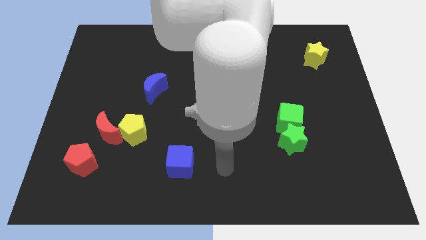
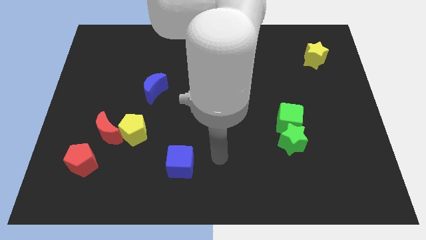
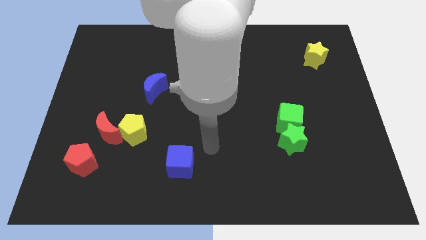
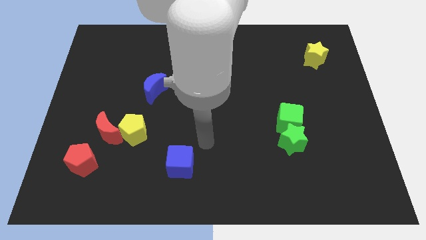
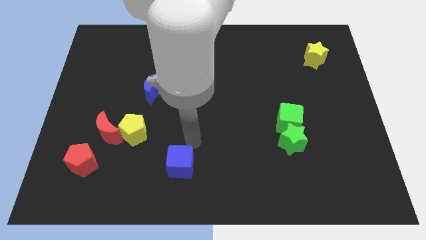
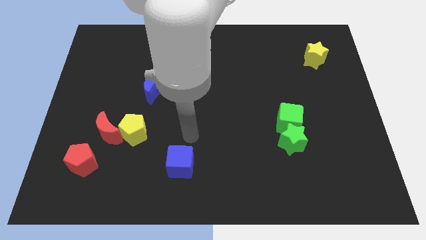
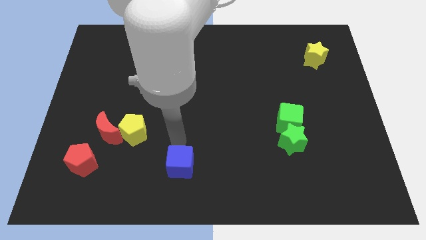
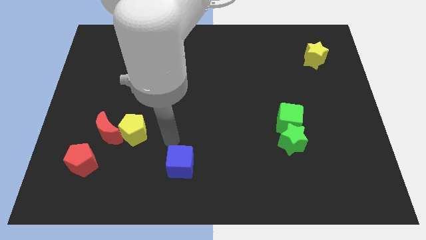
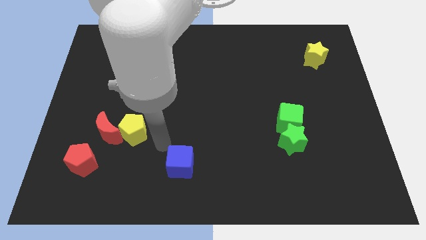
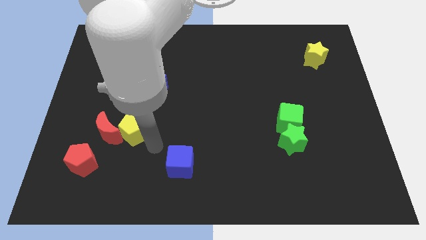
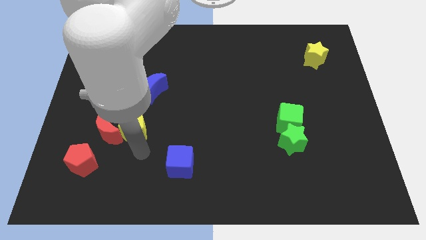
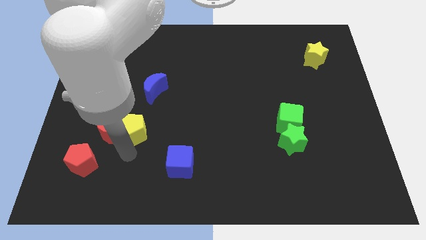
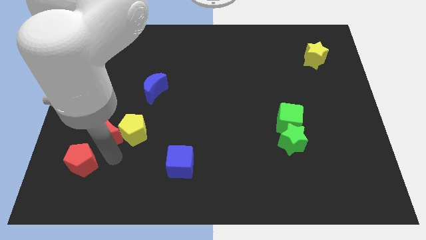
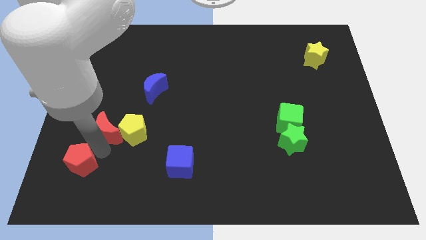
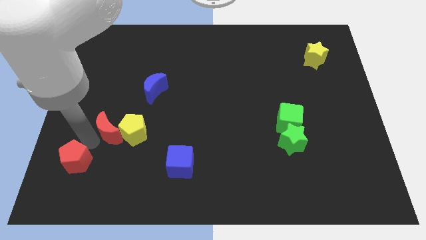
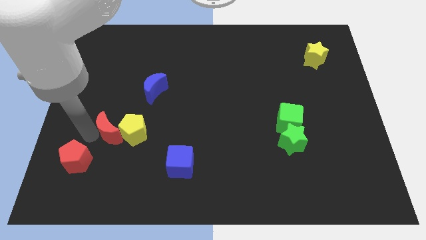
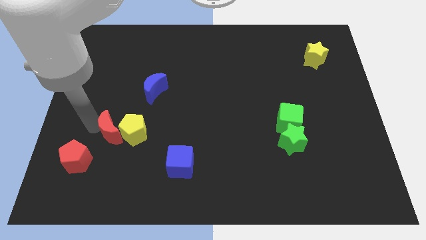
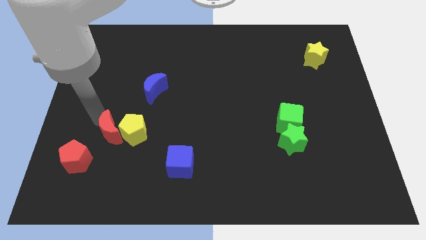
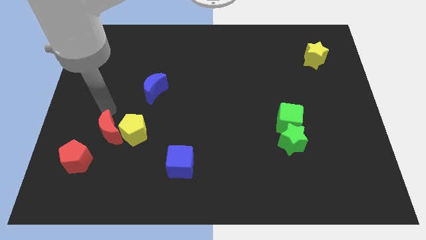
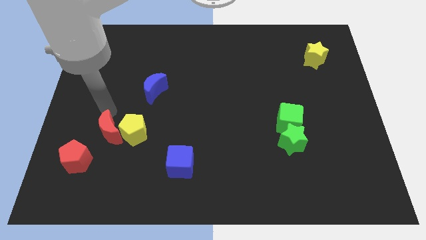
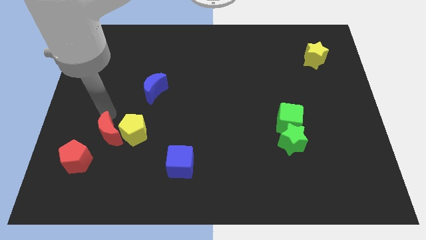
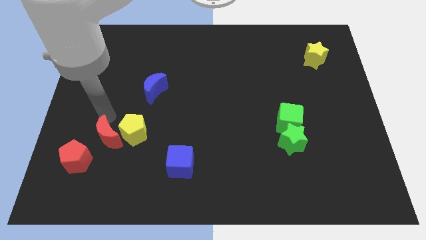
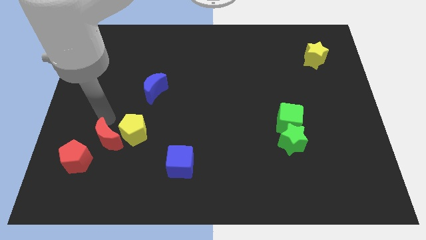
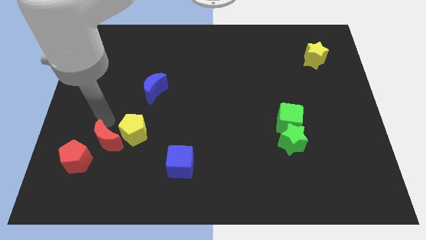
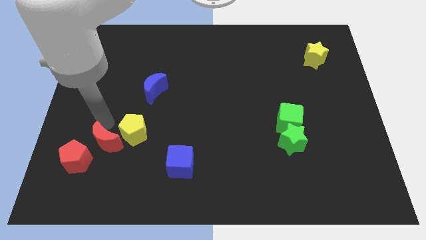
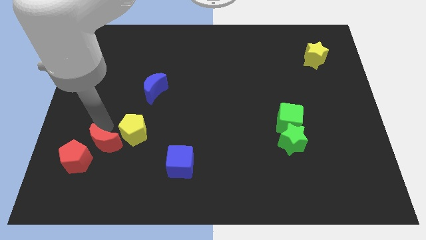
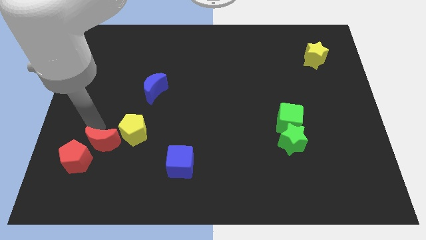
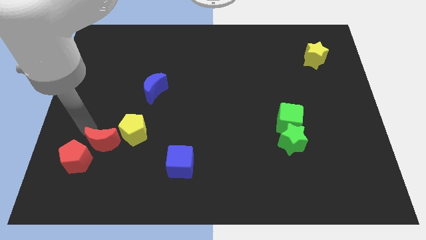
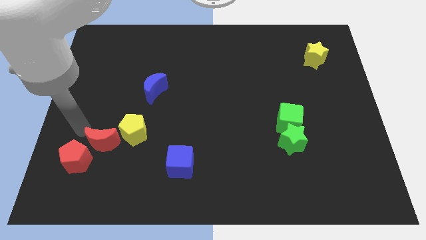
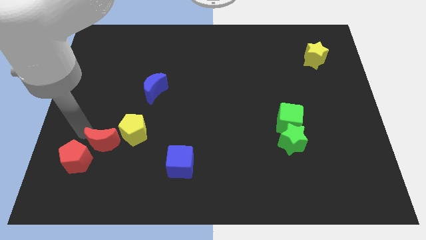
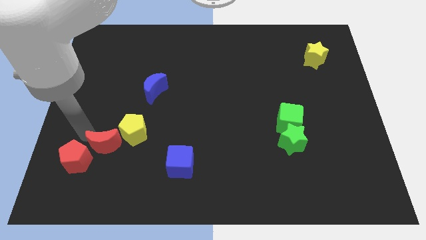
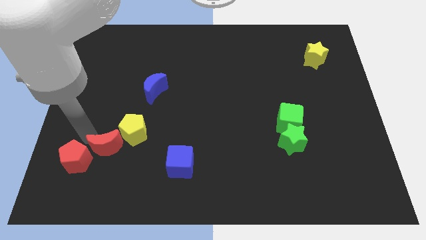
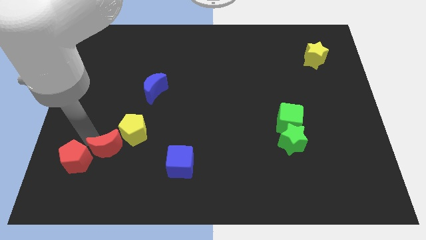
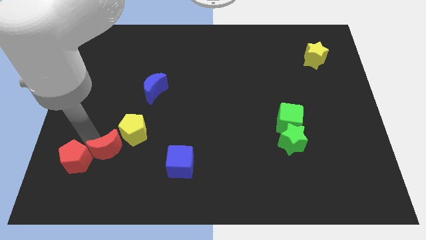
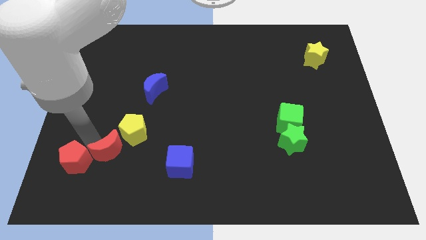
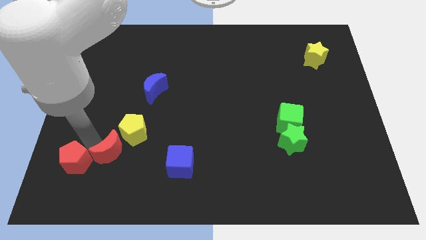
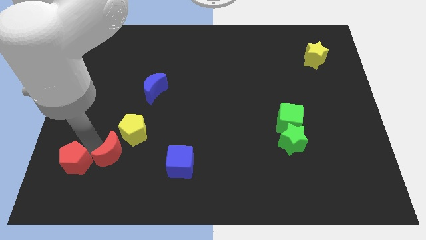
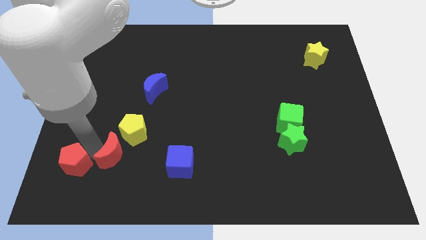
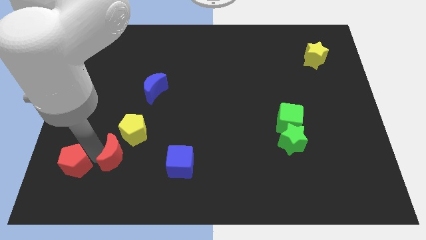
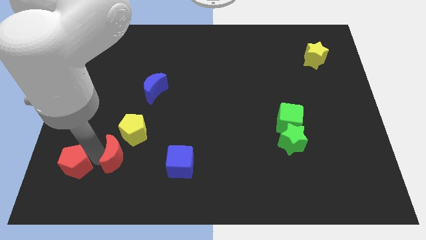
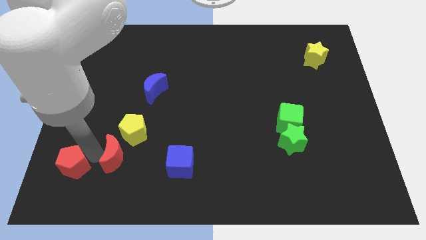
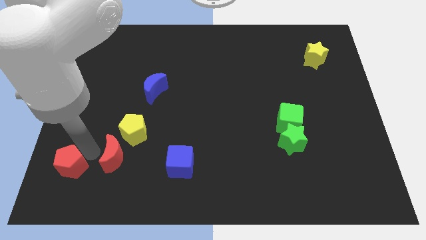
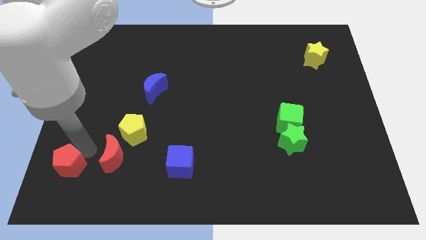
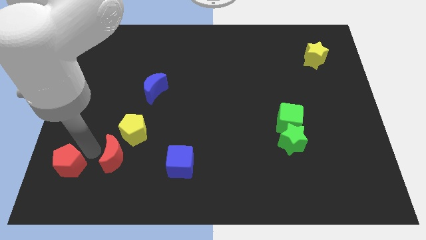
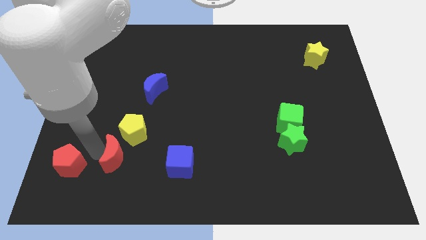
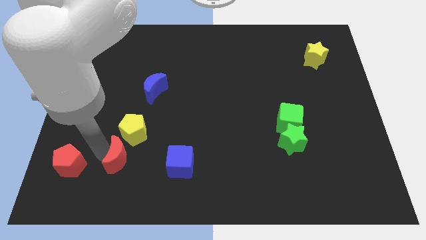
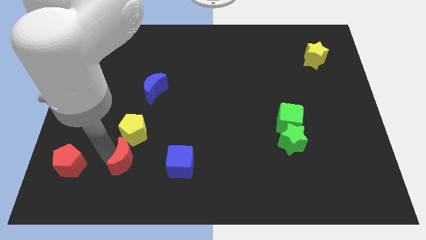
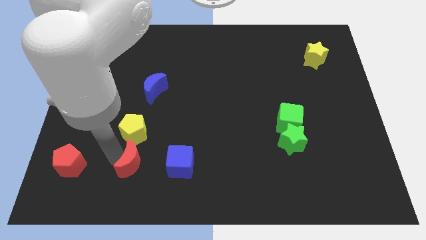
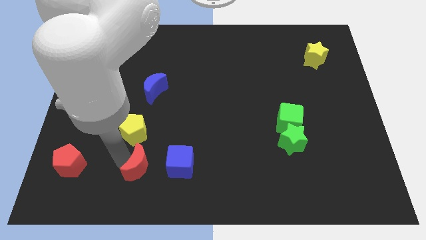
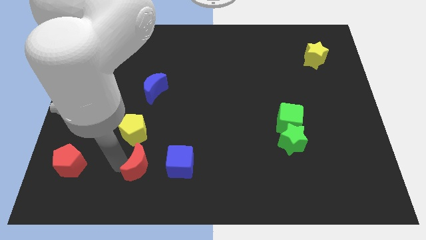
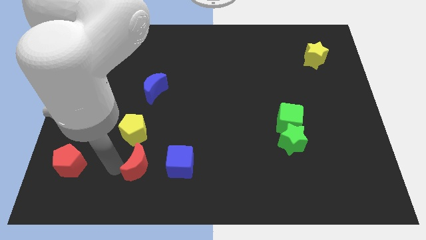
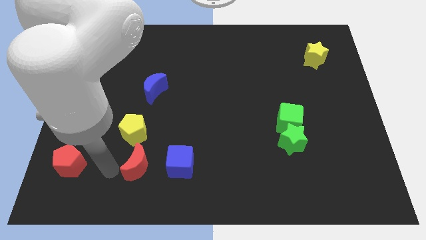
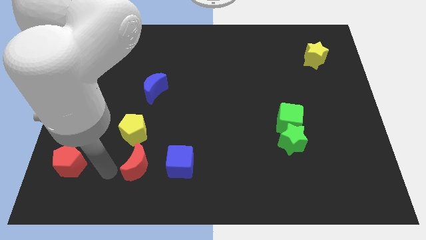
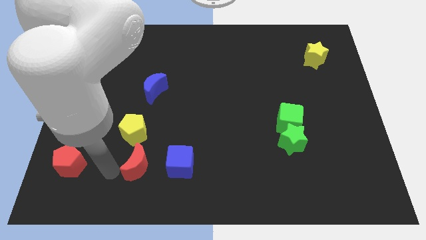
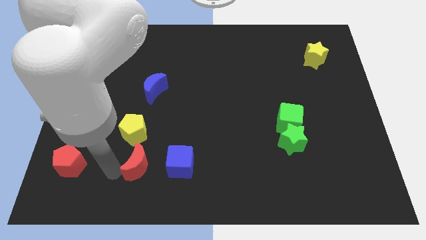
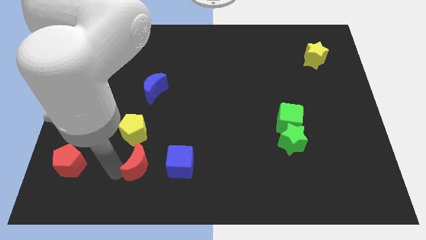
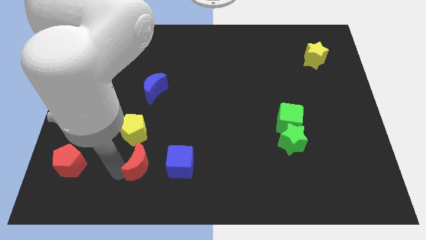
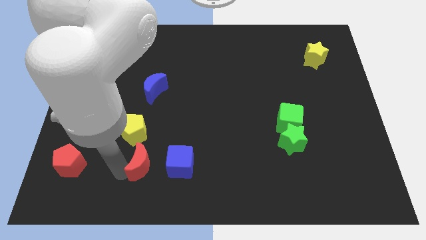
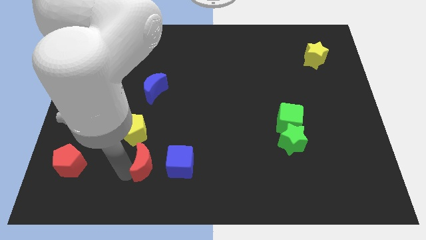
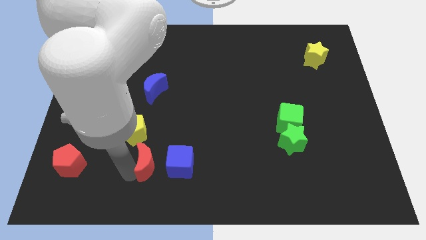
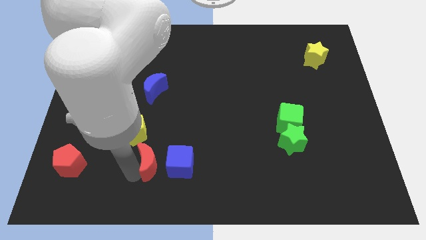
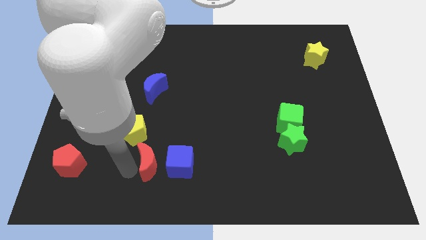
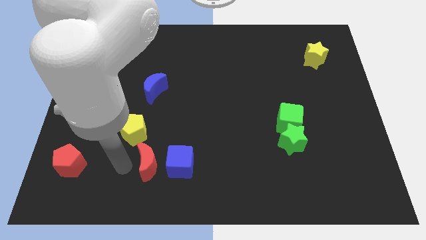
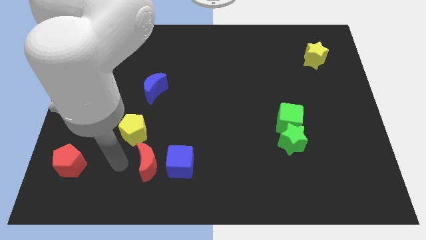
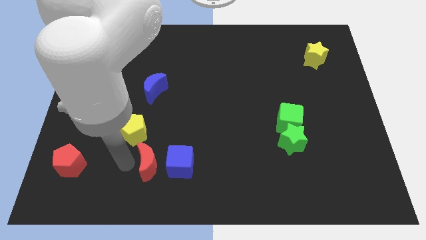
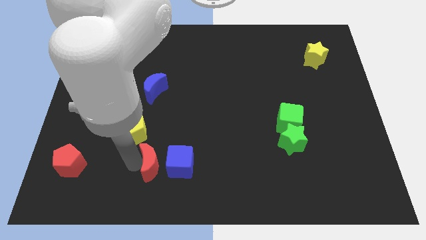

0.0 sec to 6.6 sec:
slide the red moon next to the blue cube

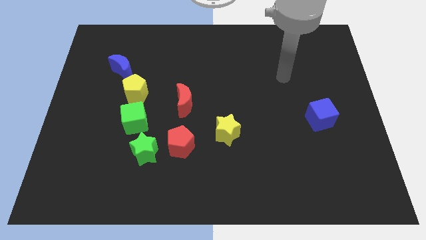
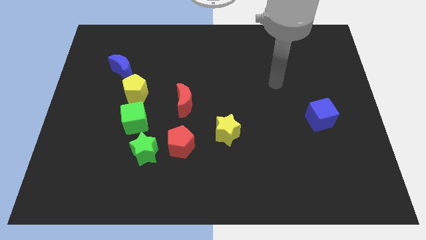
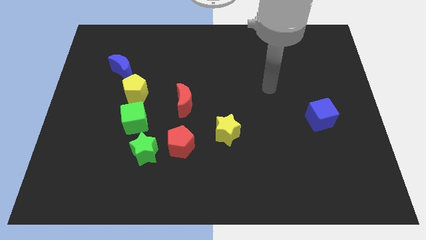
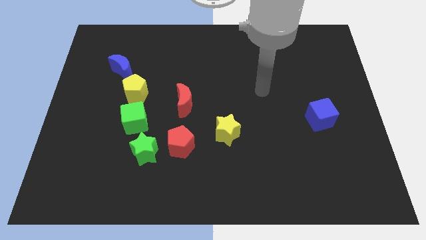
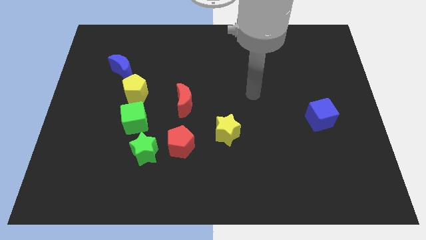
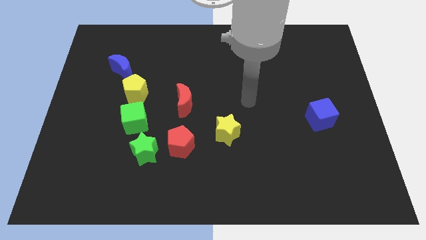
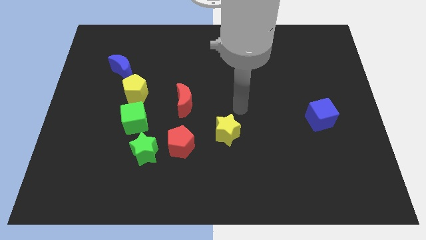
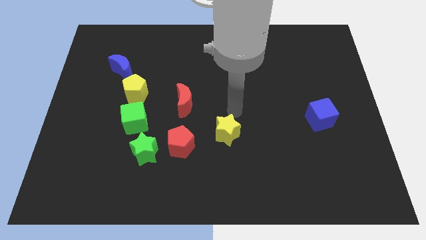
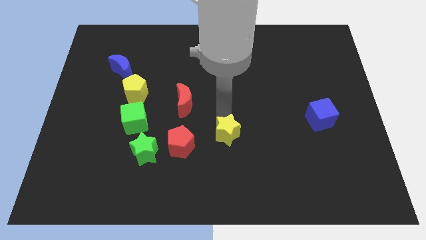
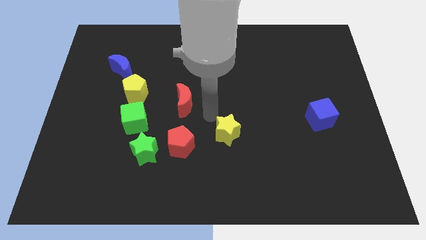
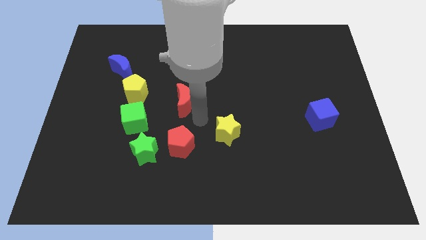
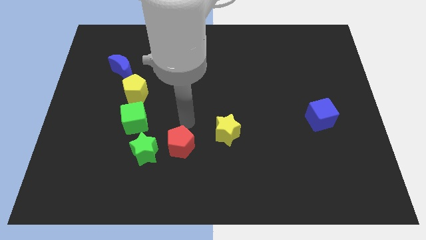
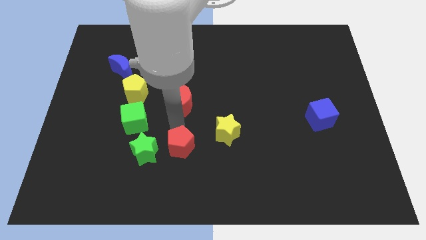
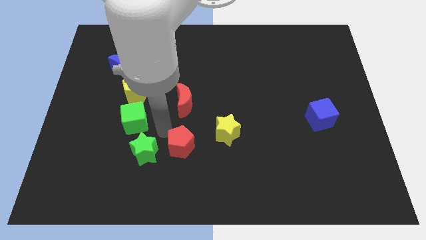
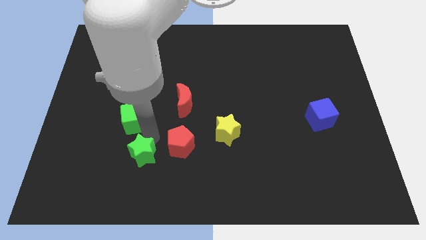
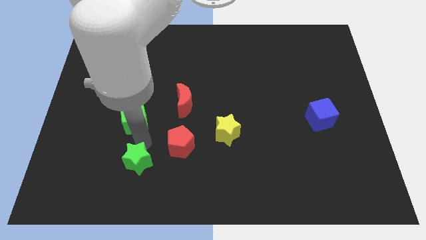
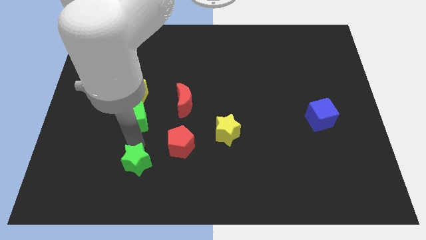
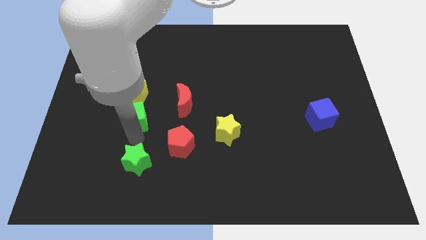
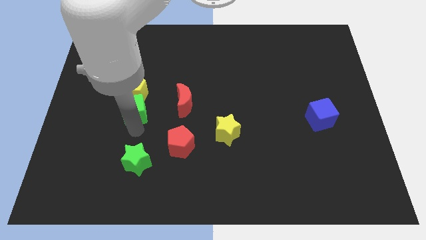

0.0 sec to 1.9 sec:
push the green cube next to the yellow pentagon
